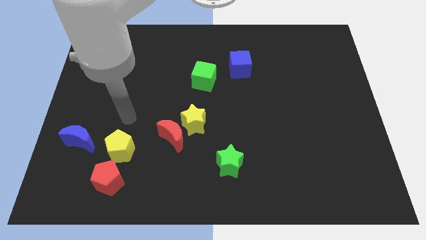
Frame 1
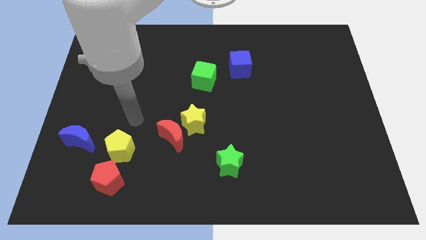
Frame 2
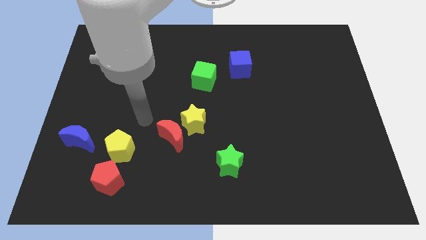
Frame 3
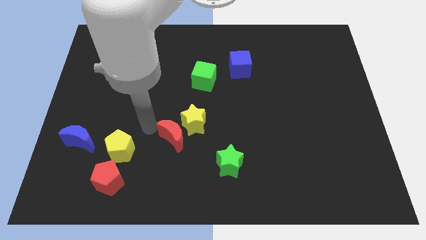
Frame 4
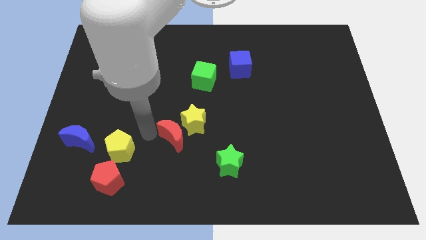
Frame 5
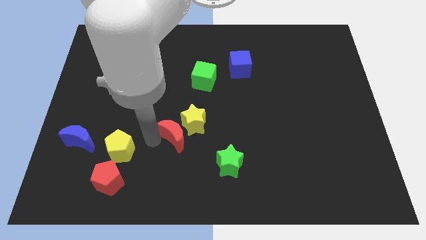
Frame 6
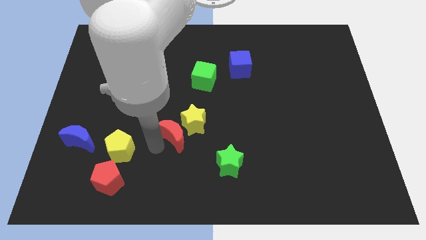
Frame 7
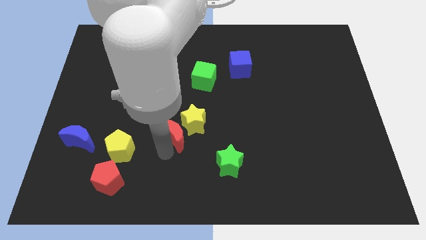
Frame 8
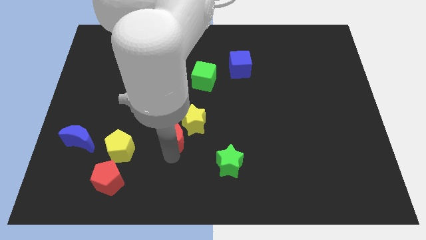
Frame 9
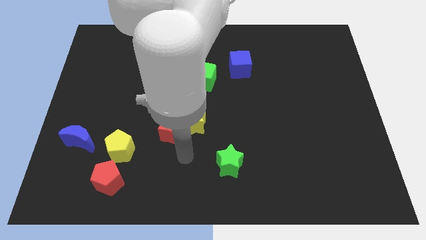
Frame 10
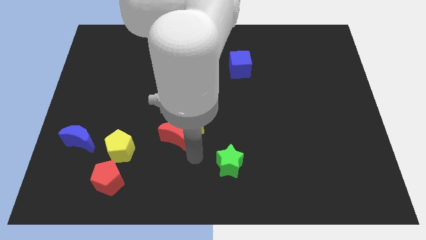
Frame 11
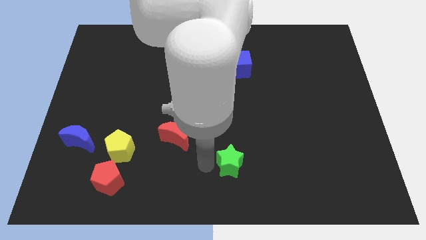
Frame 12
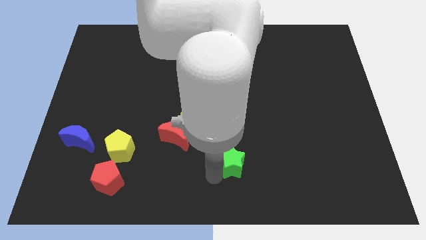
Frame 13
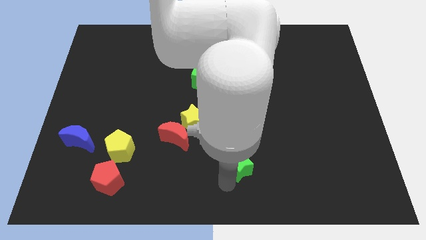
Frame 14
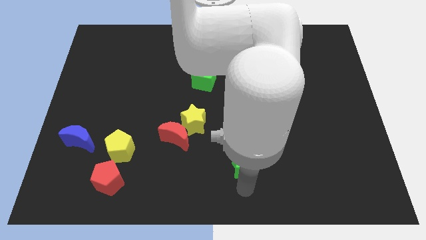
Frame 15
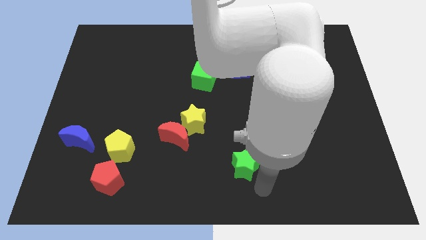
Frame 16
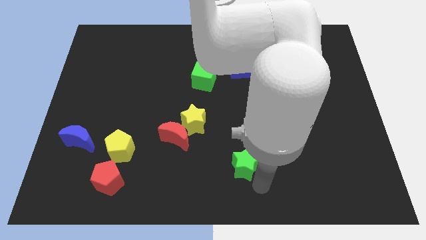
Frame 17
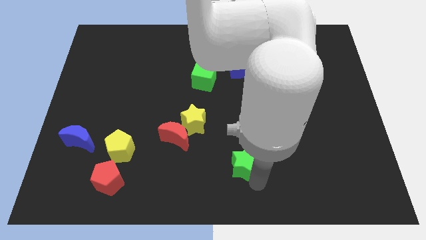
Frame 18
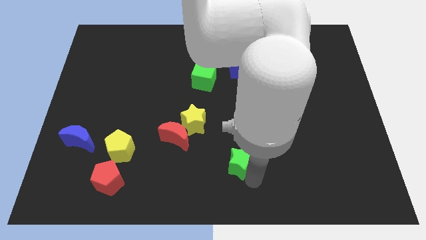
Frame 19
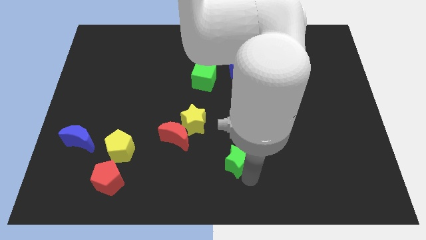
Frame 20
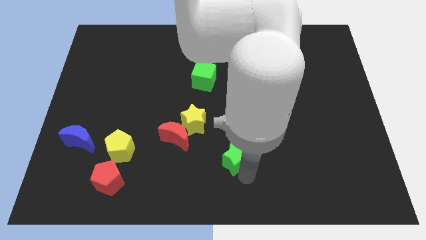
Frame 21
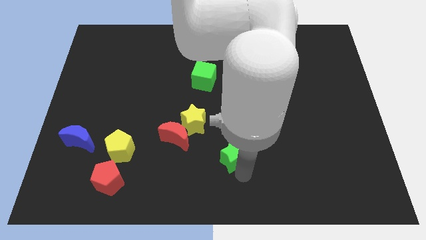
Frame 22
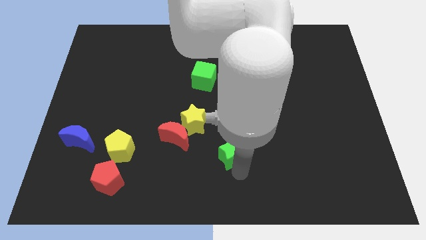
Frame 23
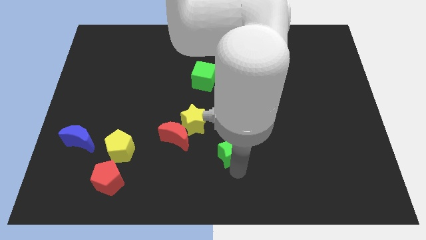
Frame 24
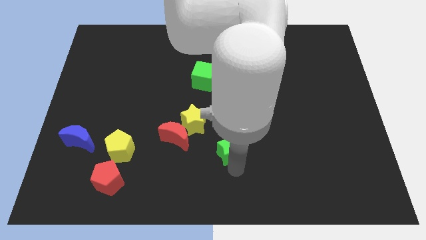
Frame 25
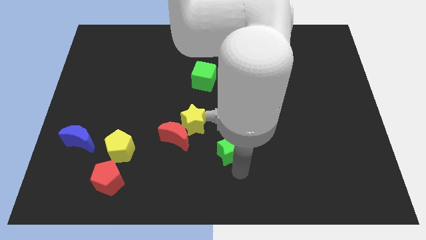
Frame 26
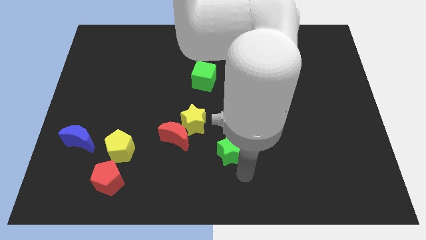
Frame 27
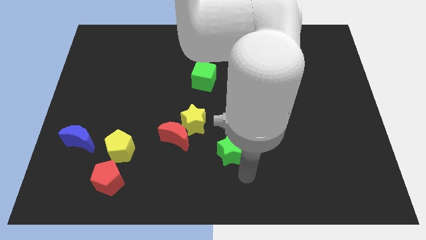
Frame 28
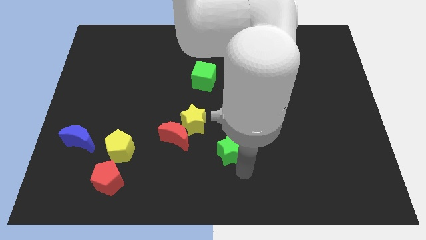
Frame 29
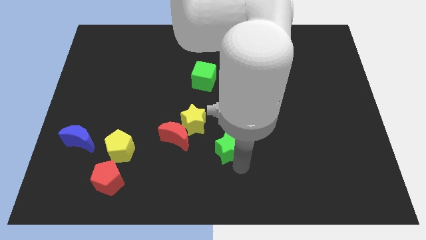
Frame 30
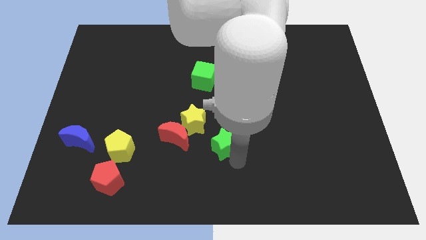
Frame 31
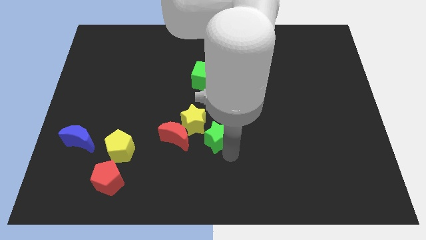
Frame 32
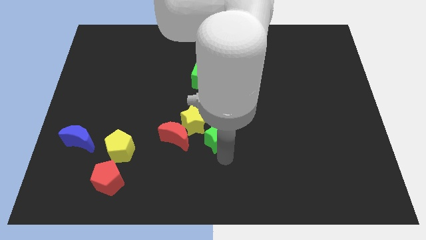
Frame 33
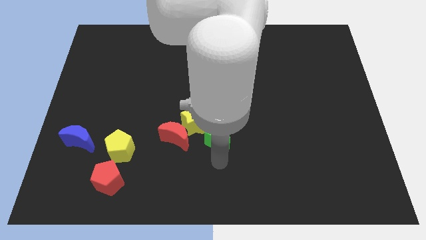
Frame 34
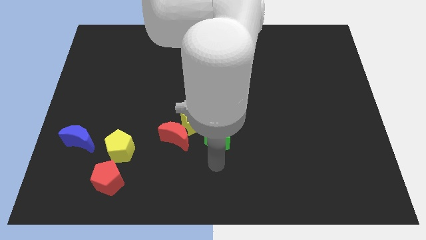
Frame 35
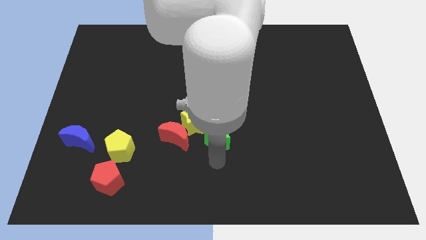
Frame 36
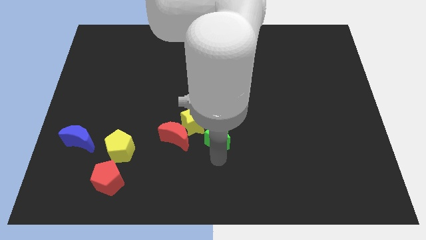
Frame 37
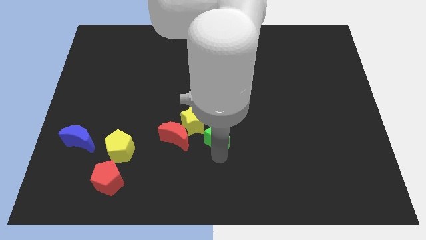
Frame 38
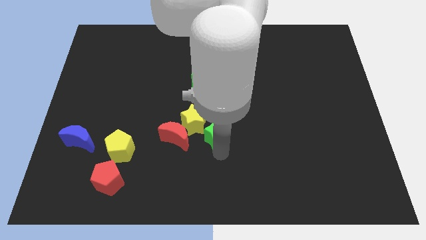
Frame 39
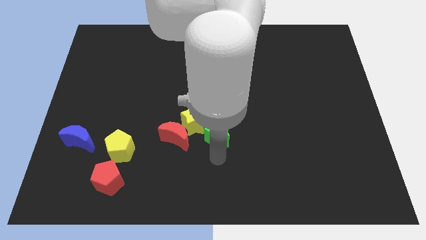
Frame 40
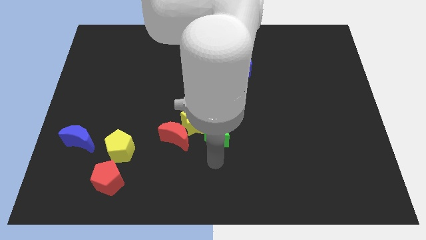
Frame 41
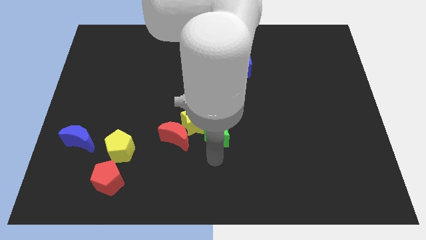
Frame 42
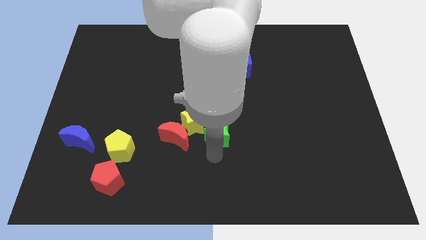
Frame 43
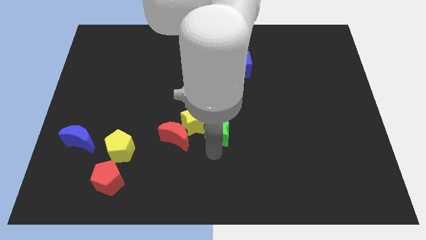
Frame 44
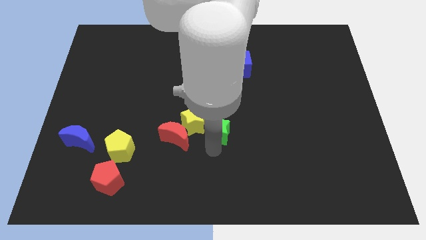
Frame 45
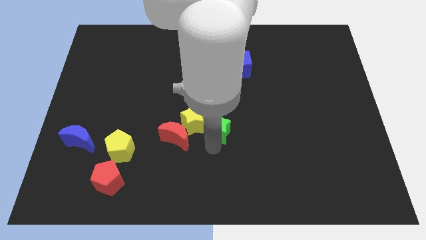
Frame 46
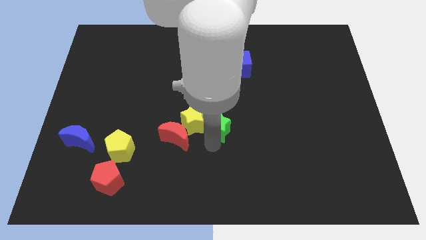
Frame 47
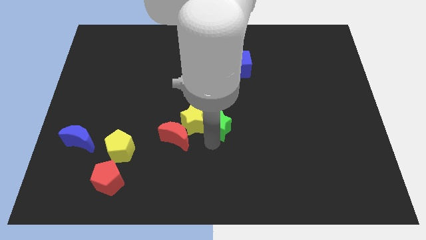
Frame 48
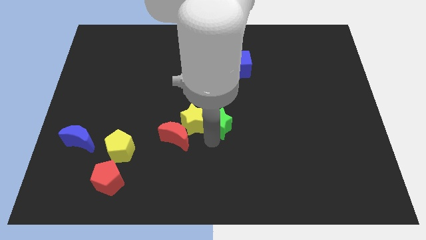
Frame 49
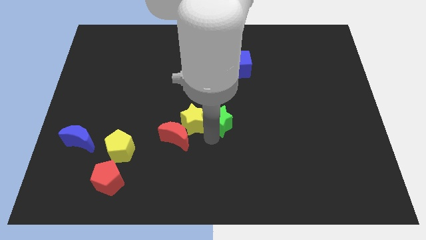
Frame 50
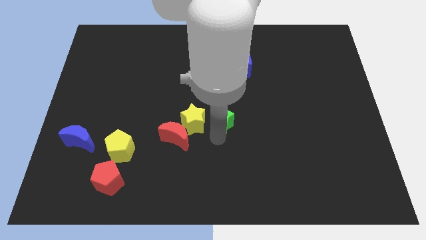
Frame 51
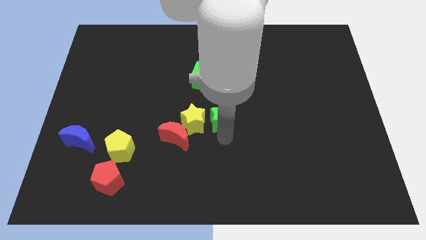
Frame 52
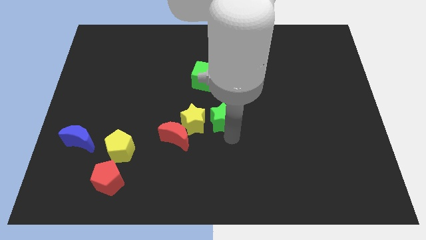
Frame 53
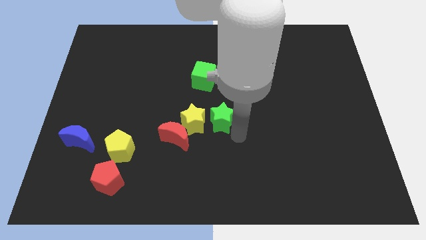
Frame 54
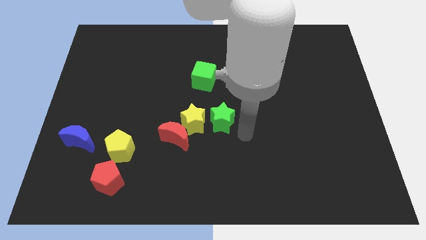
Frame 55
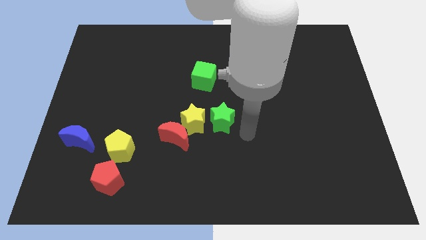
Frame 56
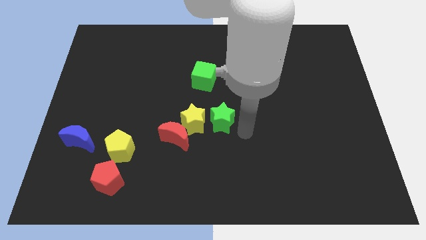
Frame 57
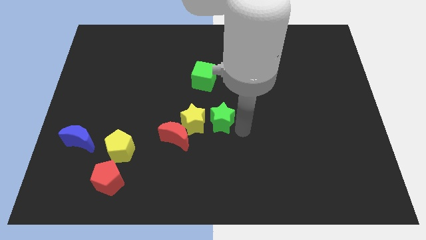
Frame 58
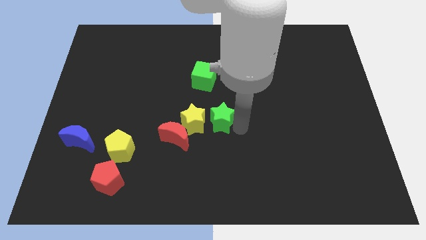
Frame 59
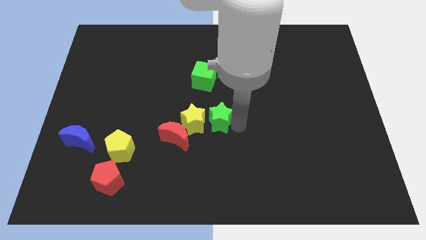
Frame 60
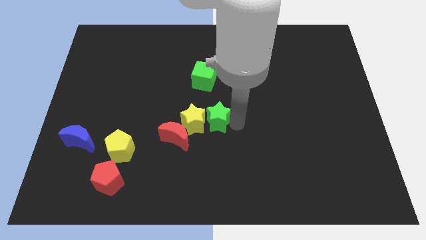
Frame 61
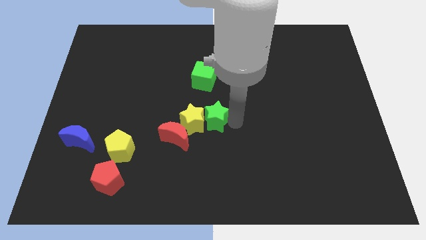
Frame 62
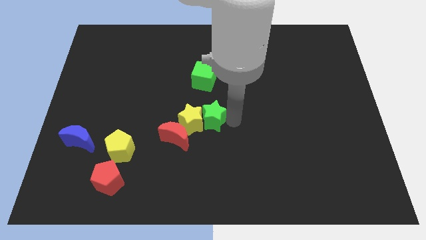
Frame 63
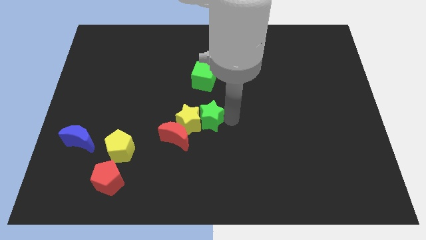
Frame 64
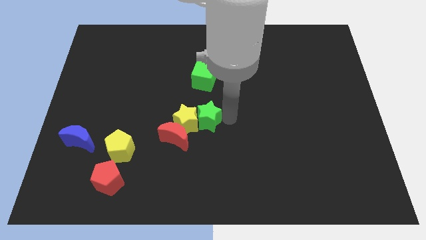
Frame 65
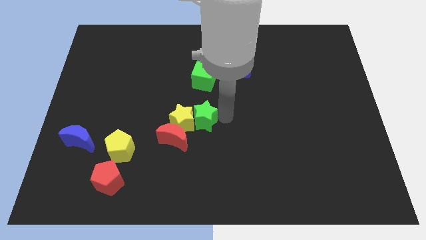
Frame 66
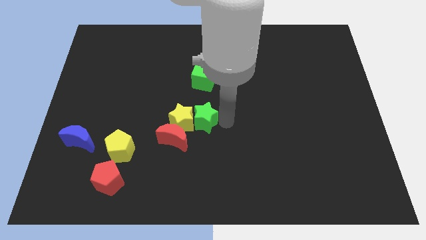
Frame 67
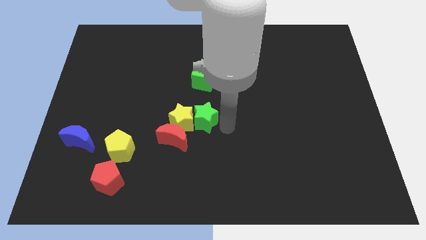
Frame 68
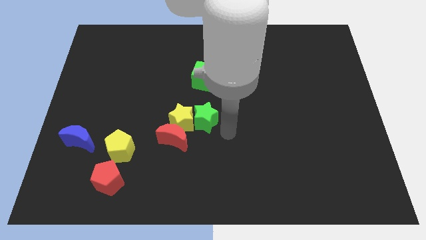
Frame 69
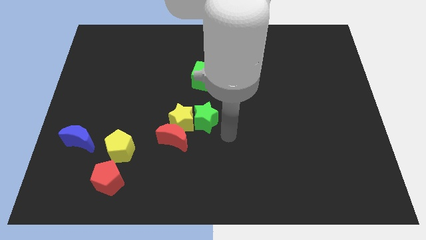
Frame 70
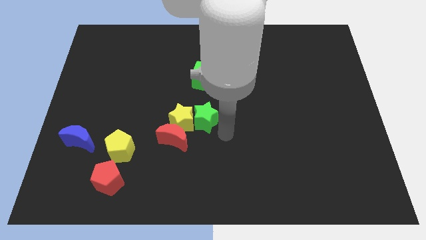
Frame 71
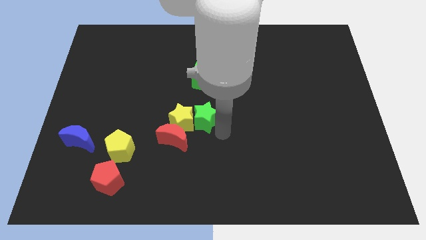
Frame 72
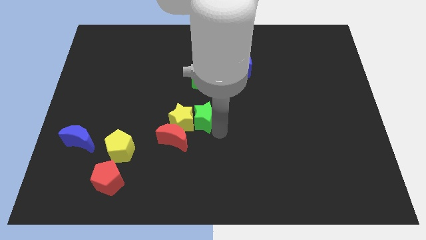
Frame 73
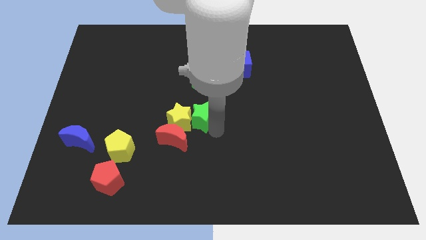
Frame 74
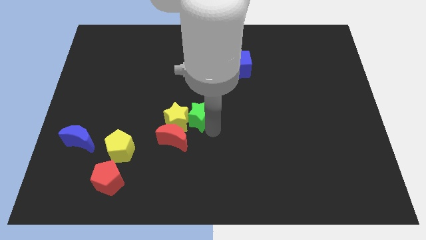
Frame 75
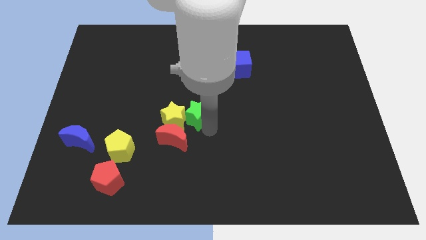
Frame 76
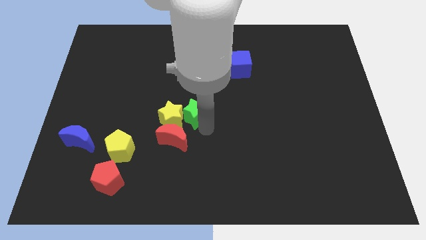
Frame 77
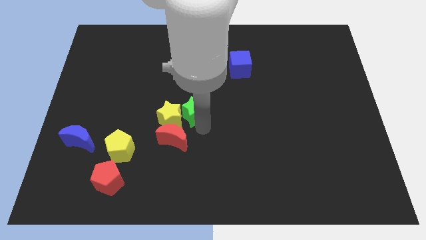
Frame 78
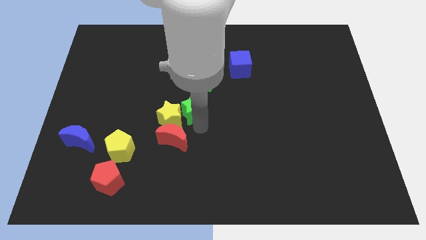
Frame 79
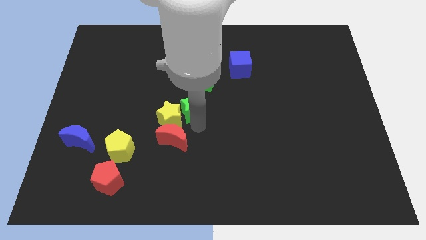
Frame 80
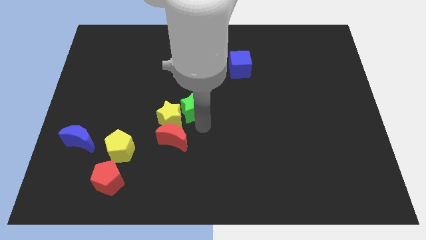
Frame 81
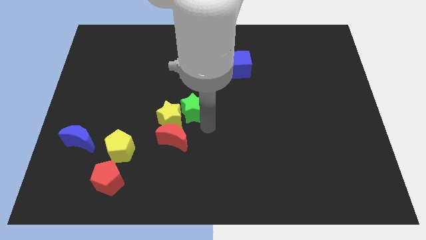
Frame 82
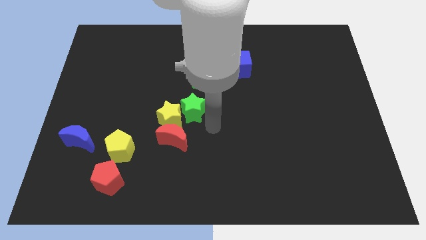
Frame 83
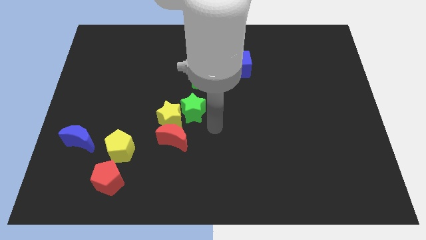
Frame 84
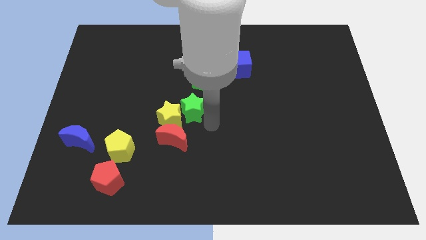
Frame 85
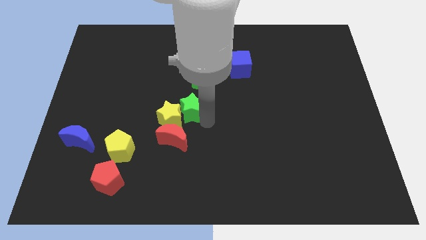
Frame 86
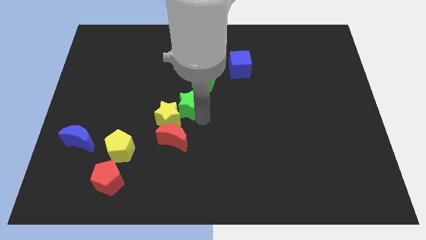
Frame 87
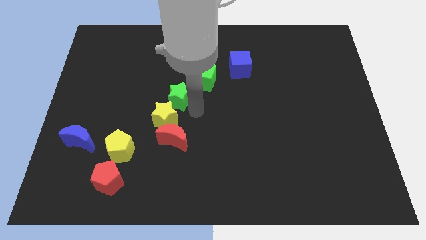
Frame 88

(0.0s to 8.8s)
move the green star diagonally up and to the left
